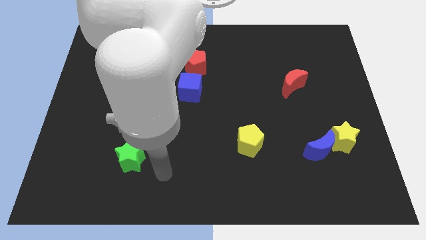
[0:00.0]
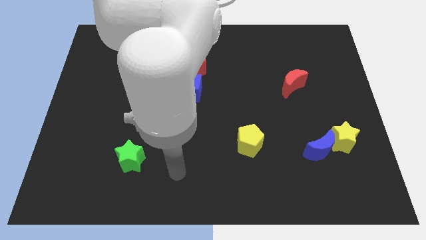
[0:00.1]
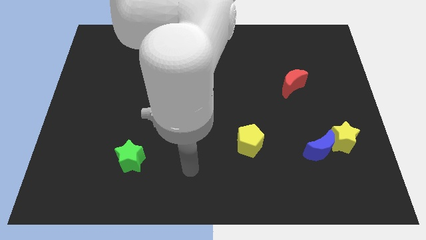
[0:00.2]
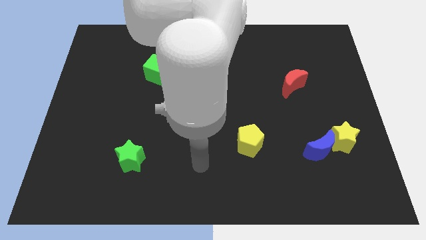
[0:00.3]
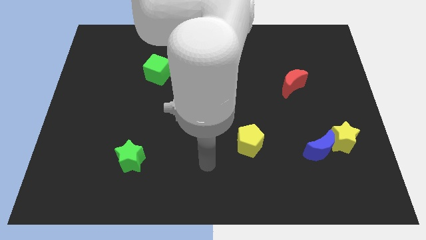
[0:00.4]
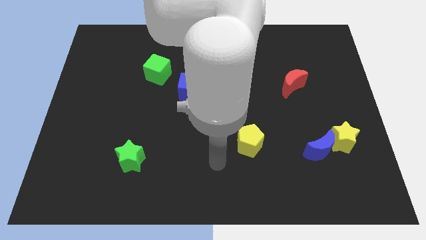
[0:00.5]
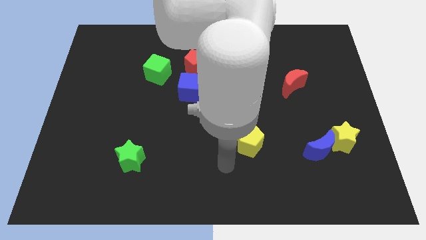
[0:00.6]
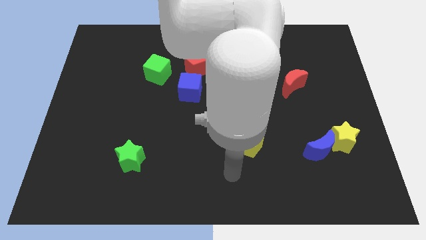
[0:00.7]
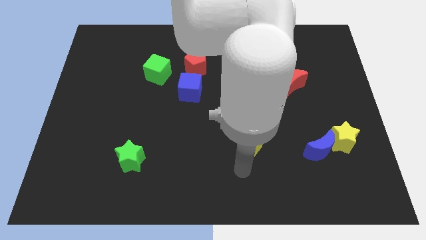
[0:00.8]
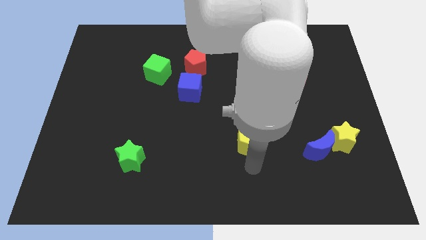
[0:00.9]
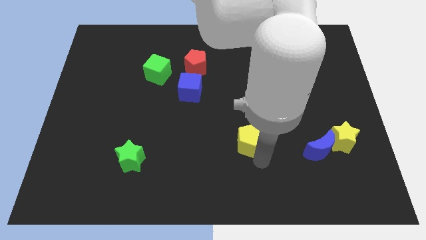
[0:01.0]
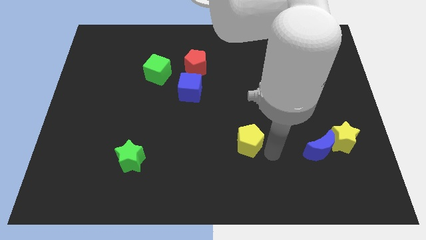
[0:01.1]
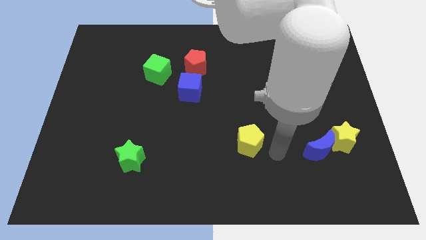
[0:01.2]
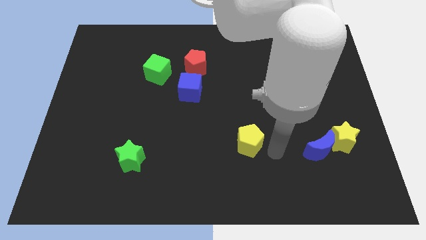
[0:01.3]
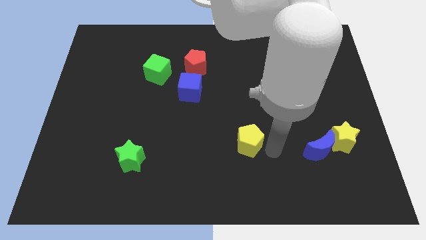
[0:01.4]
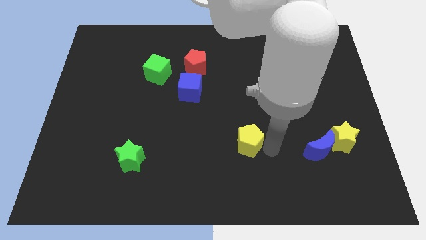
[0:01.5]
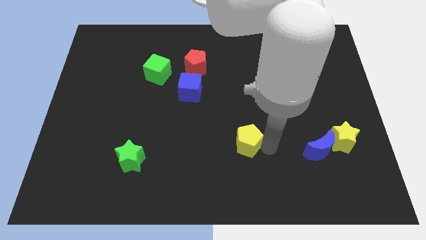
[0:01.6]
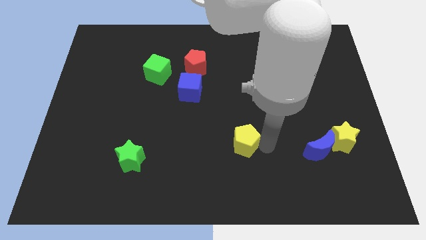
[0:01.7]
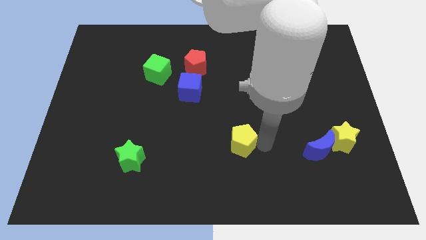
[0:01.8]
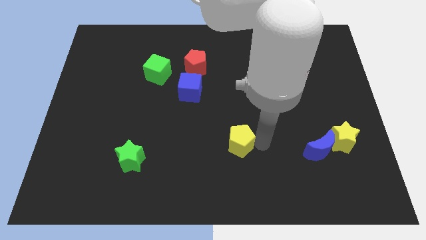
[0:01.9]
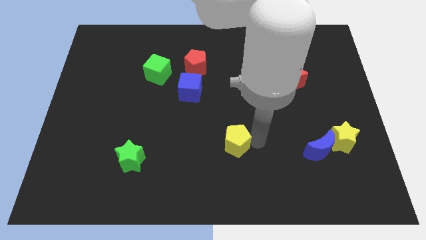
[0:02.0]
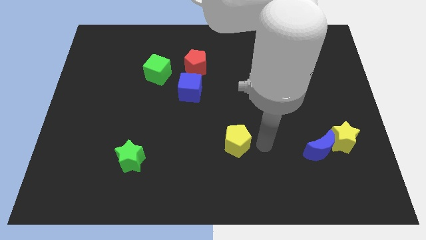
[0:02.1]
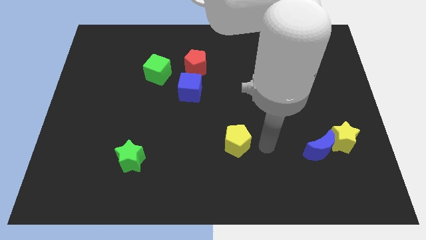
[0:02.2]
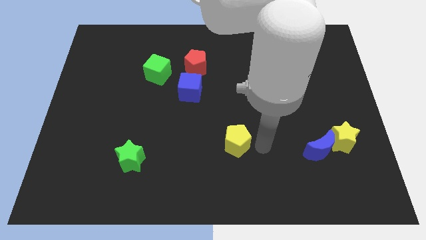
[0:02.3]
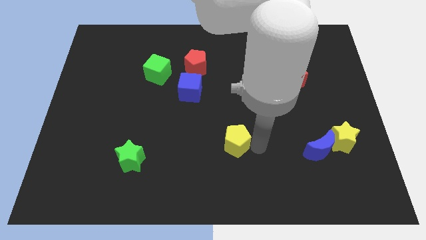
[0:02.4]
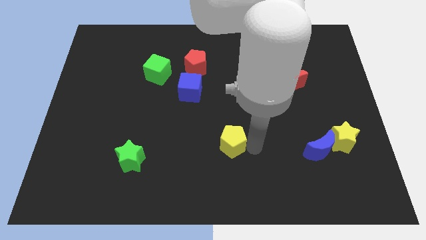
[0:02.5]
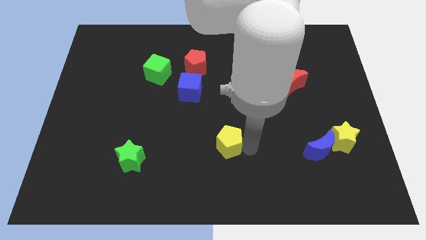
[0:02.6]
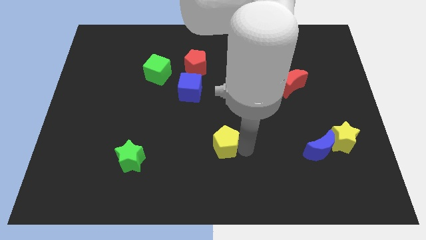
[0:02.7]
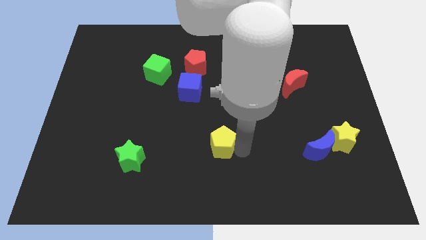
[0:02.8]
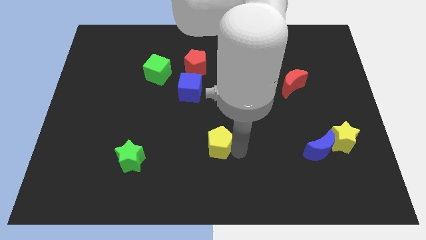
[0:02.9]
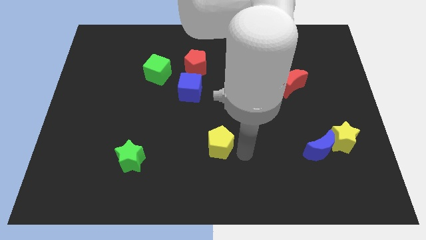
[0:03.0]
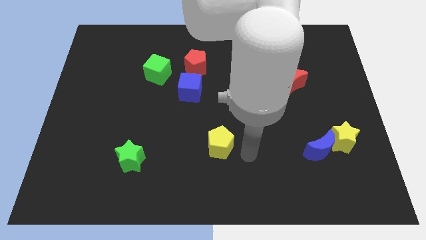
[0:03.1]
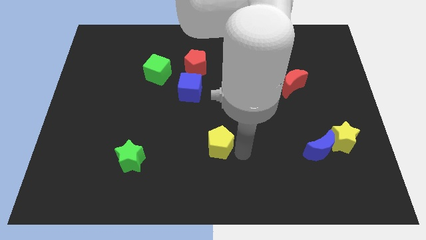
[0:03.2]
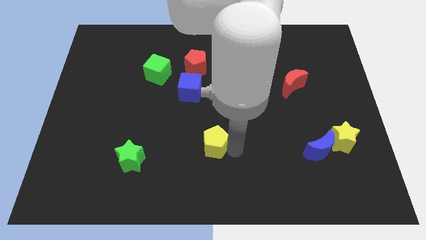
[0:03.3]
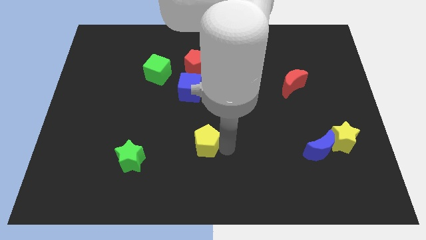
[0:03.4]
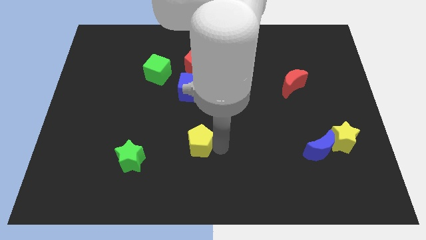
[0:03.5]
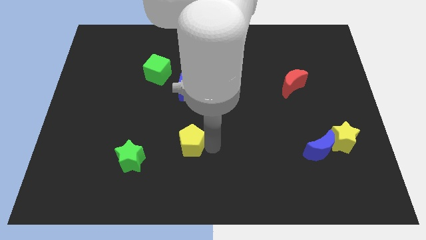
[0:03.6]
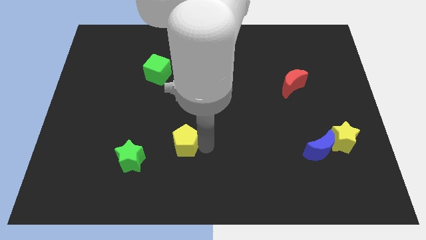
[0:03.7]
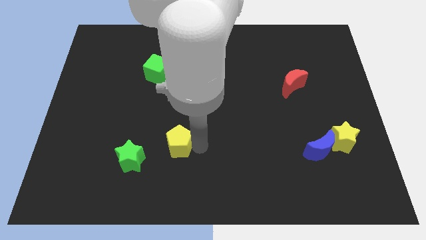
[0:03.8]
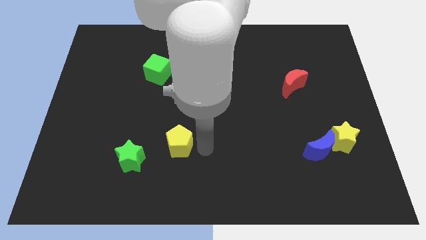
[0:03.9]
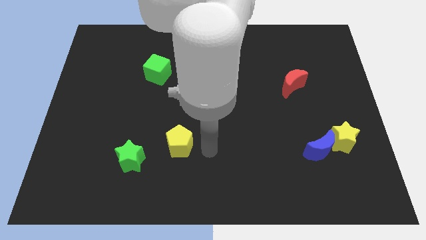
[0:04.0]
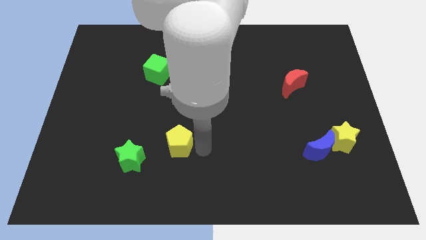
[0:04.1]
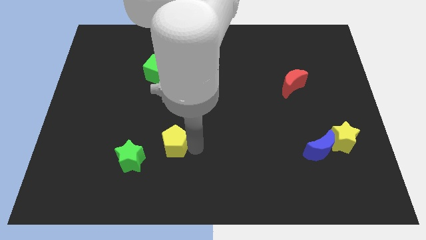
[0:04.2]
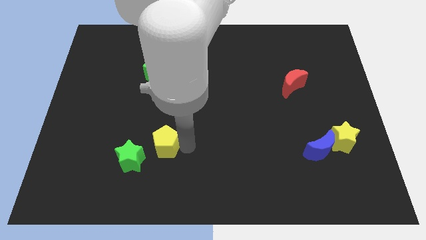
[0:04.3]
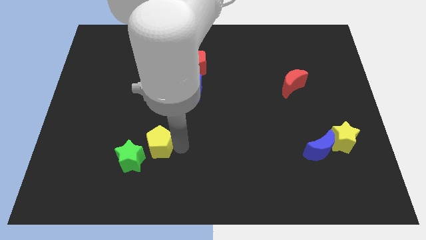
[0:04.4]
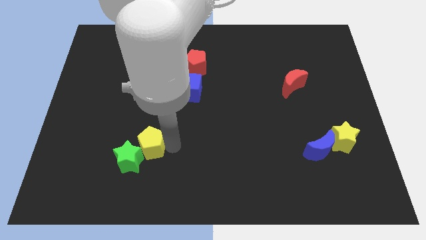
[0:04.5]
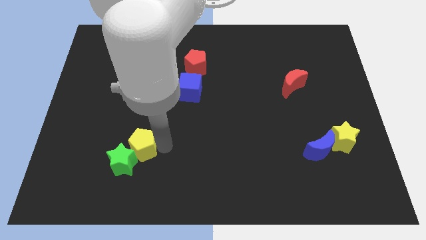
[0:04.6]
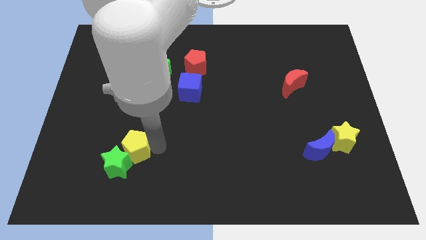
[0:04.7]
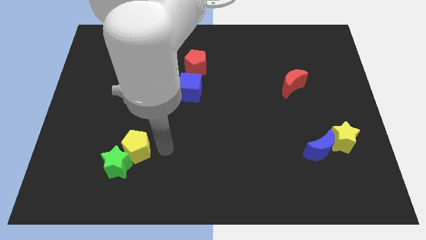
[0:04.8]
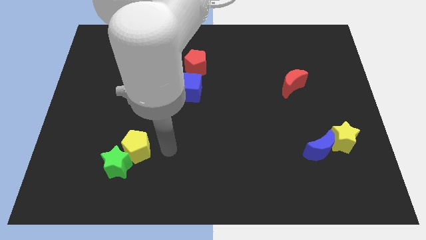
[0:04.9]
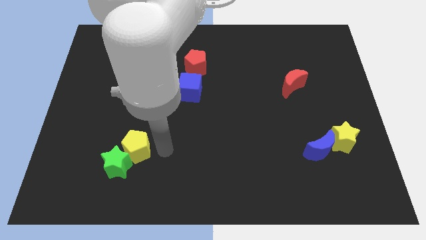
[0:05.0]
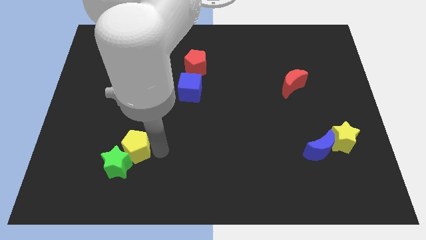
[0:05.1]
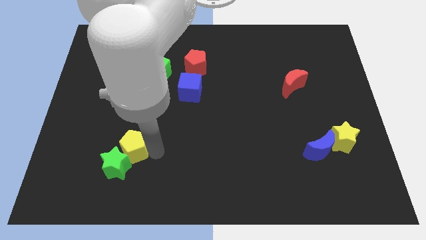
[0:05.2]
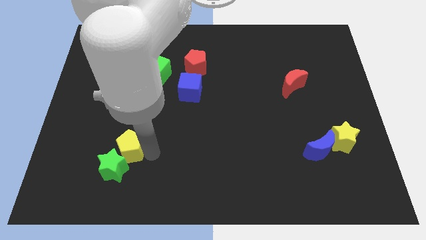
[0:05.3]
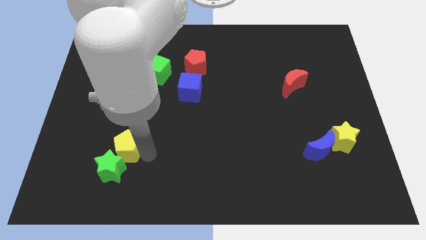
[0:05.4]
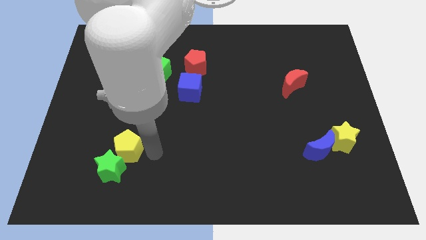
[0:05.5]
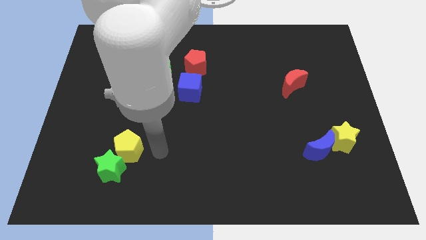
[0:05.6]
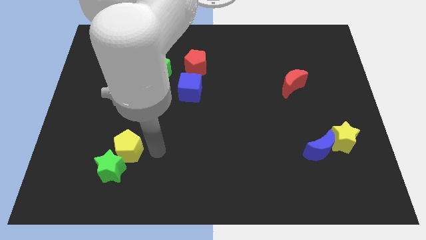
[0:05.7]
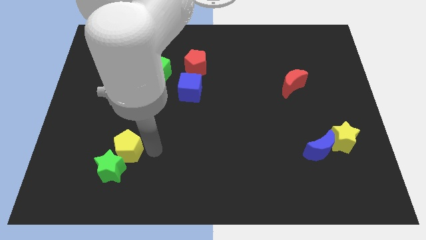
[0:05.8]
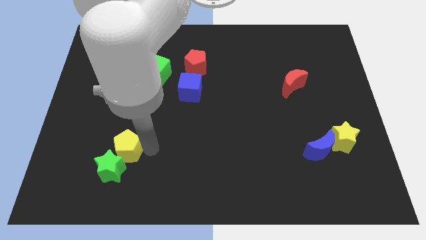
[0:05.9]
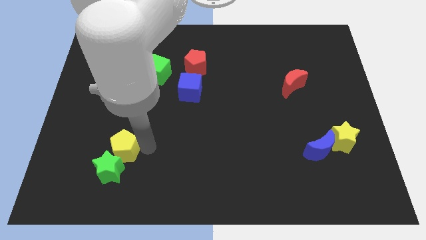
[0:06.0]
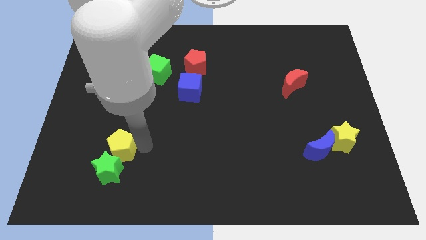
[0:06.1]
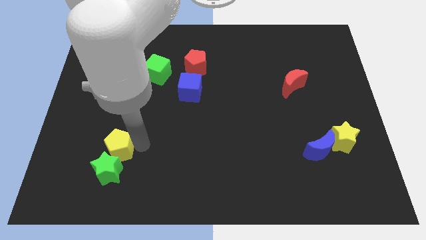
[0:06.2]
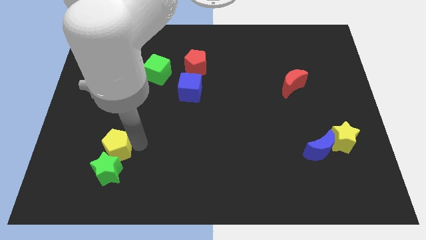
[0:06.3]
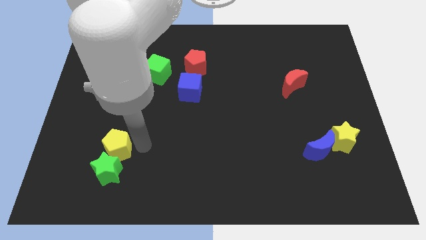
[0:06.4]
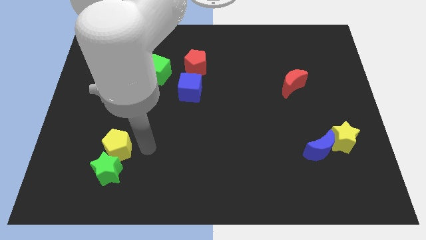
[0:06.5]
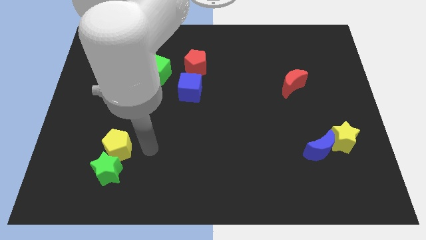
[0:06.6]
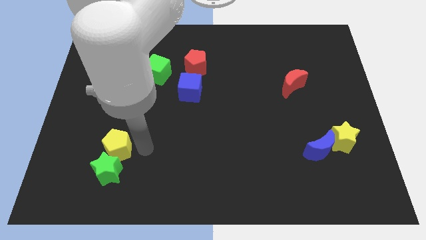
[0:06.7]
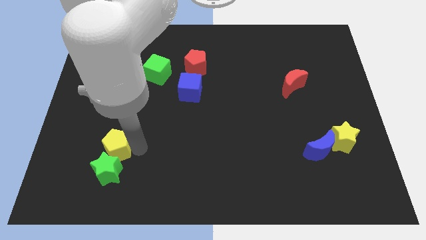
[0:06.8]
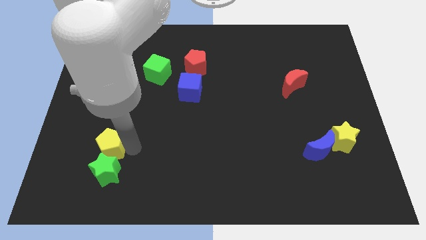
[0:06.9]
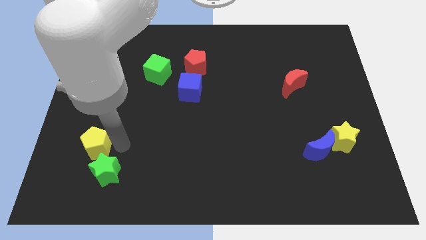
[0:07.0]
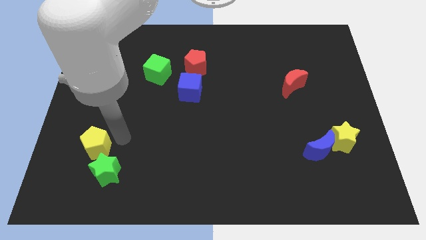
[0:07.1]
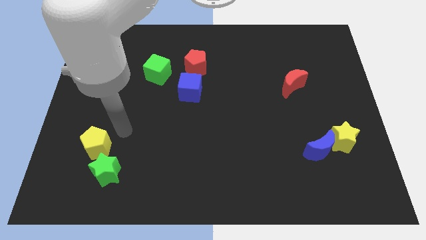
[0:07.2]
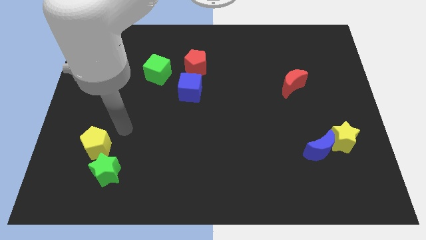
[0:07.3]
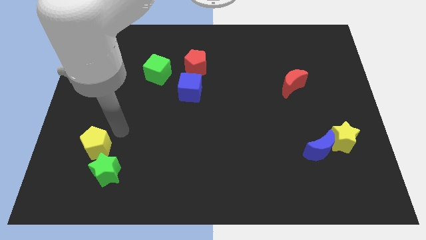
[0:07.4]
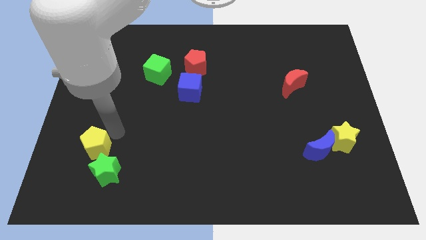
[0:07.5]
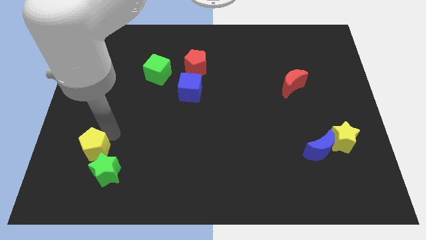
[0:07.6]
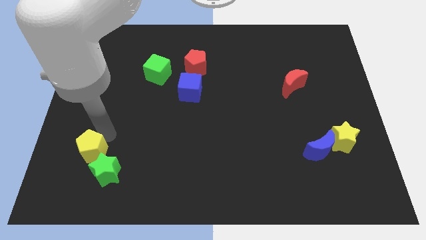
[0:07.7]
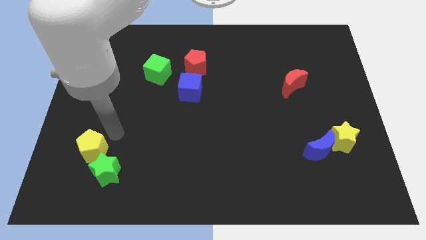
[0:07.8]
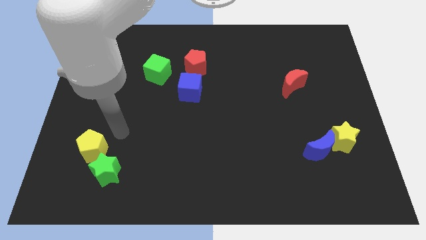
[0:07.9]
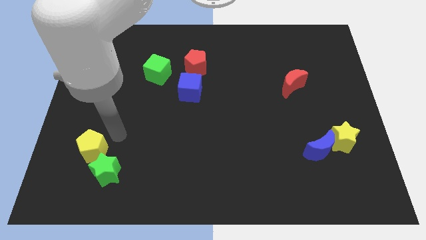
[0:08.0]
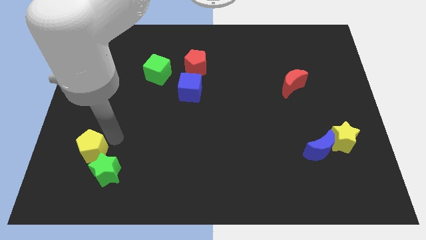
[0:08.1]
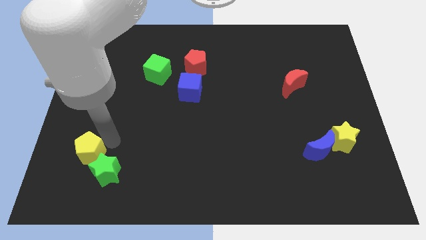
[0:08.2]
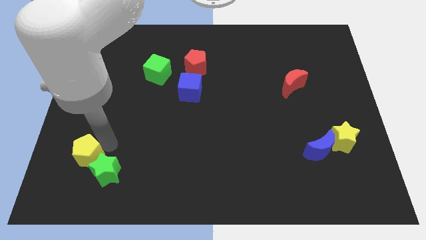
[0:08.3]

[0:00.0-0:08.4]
move the yellow pentagon to the left side of the green star
